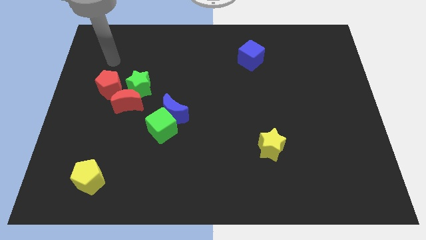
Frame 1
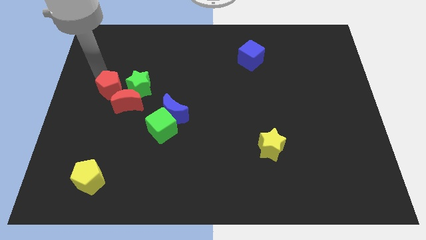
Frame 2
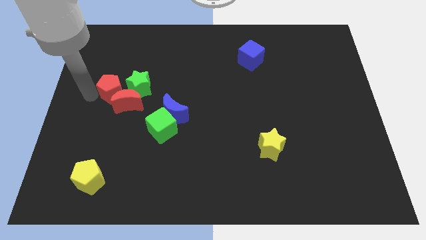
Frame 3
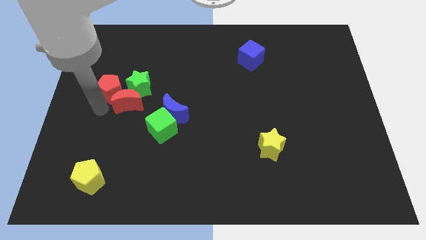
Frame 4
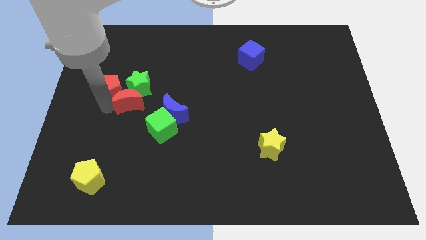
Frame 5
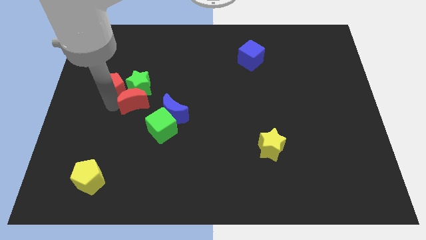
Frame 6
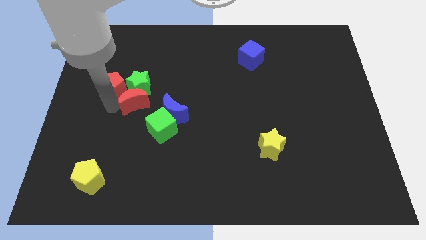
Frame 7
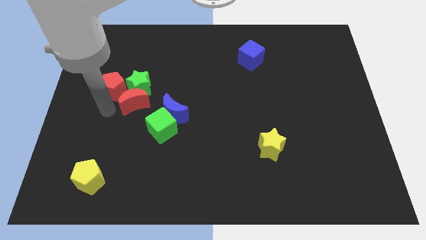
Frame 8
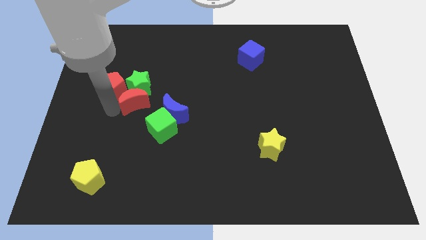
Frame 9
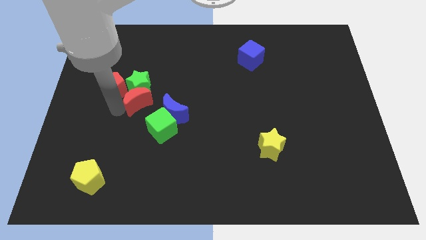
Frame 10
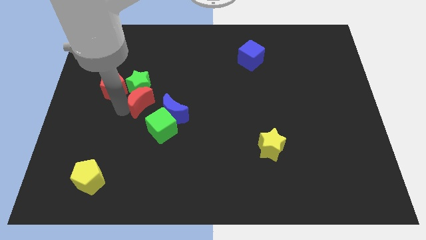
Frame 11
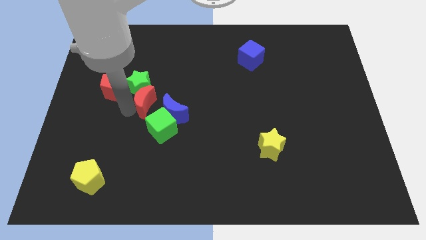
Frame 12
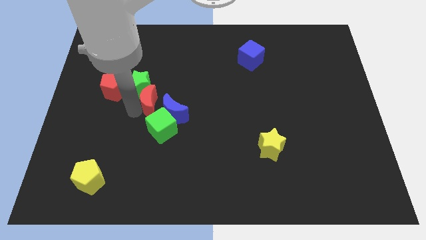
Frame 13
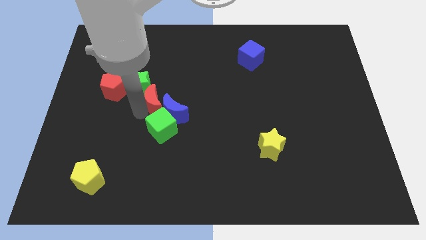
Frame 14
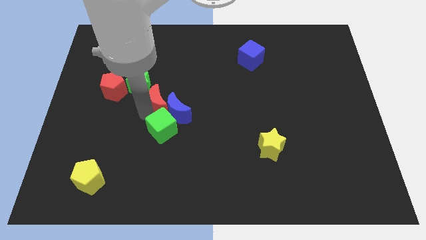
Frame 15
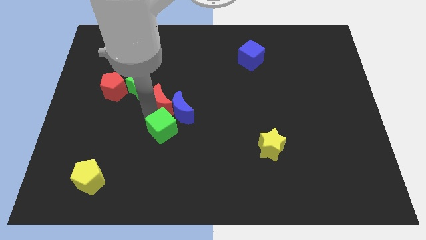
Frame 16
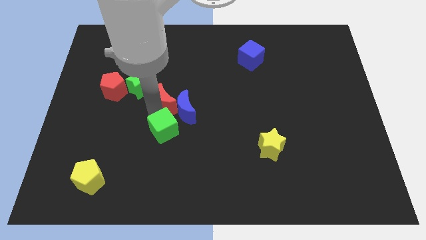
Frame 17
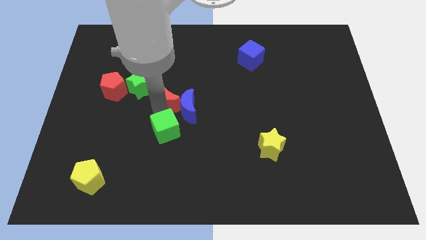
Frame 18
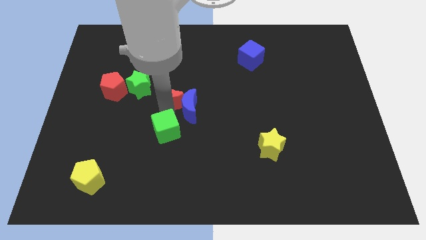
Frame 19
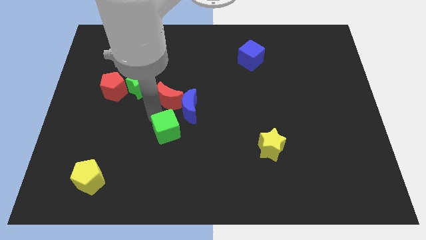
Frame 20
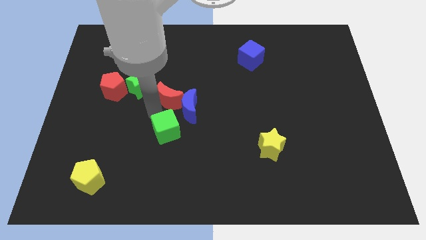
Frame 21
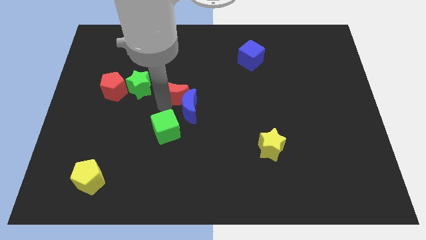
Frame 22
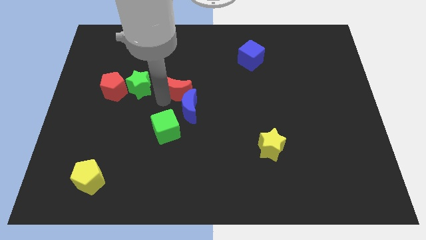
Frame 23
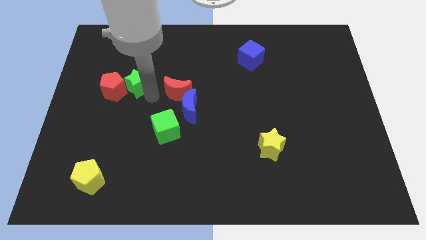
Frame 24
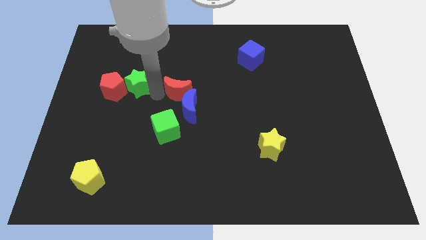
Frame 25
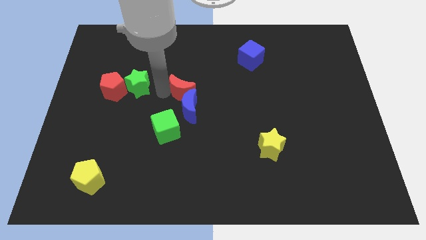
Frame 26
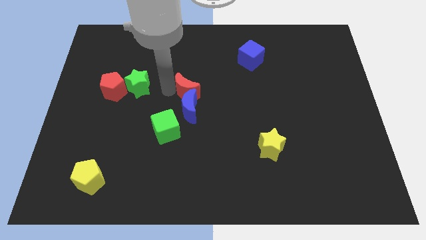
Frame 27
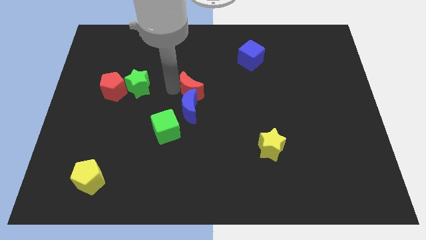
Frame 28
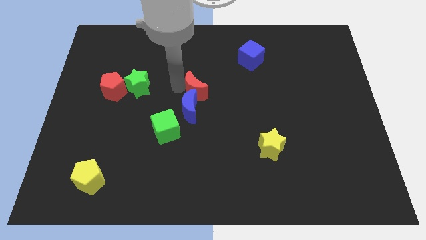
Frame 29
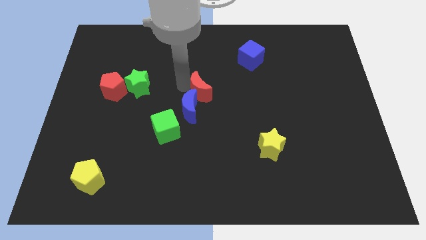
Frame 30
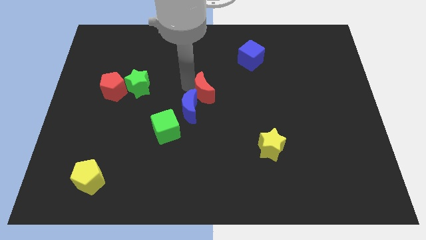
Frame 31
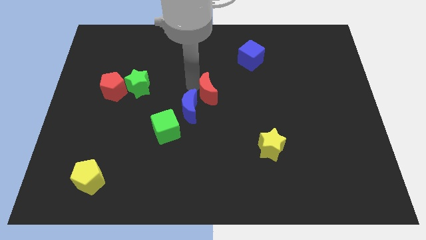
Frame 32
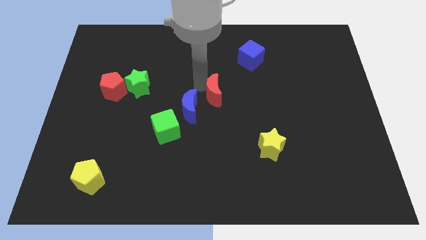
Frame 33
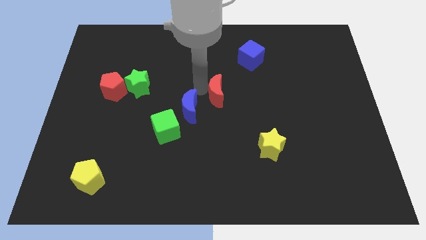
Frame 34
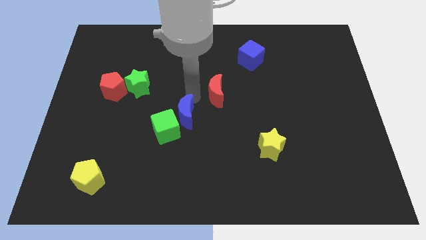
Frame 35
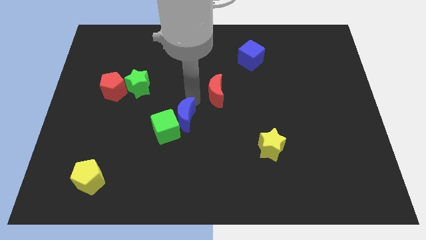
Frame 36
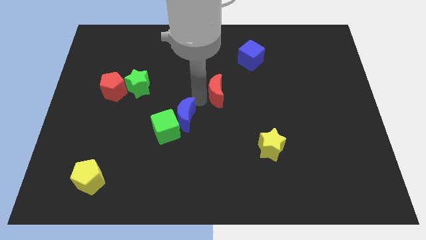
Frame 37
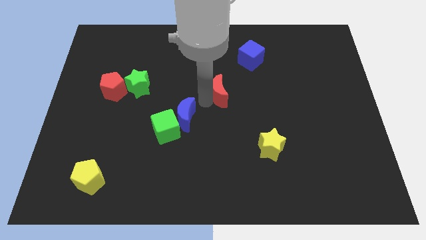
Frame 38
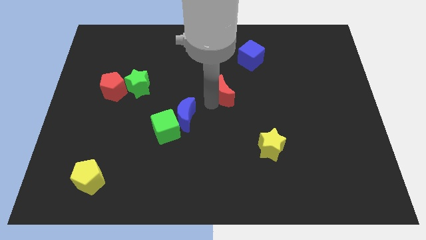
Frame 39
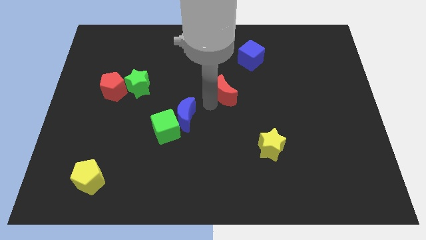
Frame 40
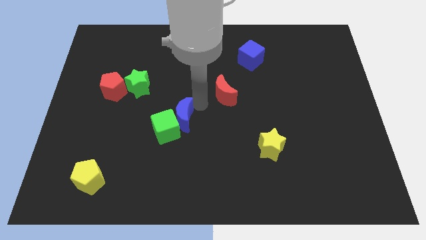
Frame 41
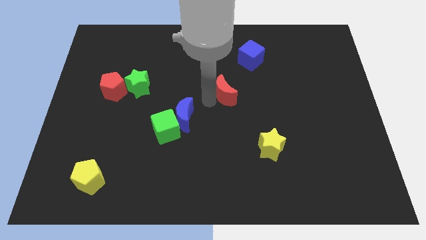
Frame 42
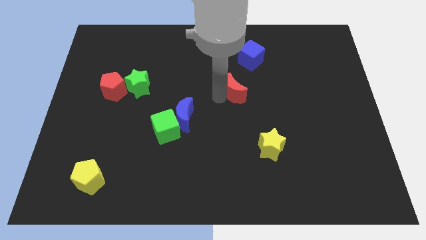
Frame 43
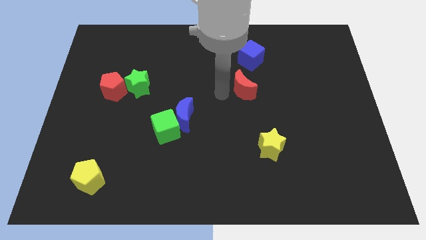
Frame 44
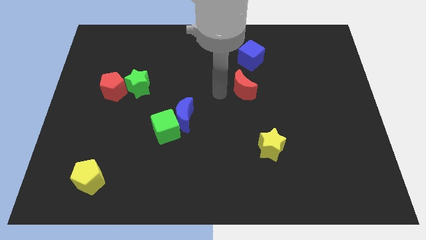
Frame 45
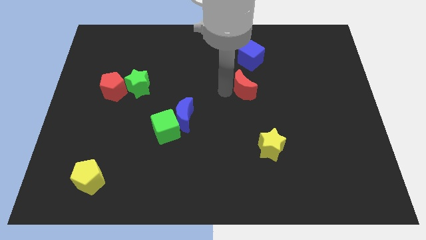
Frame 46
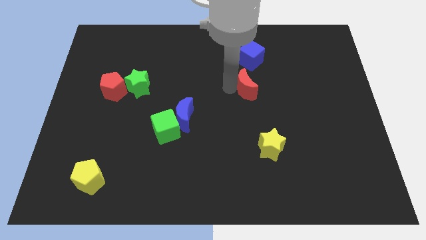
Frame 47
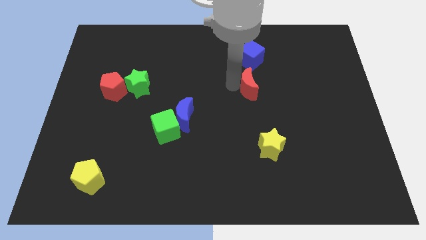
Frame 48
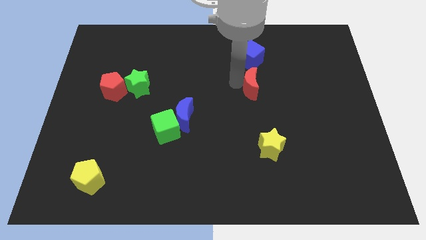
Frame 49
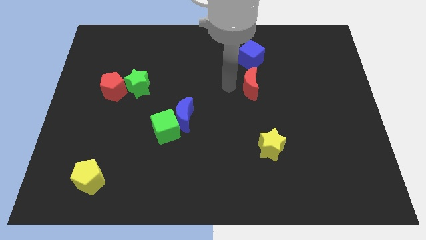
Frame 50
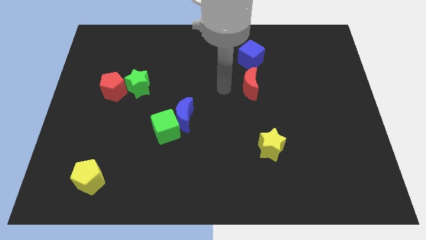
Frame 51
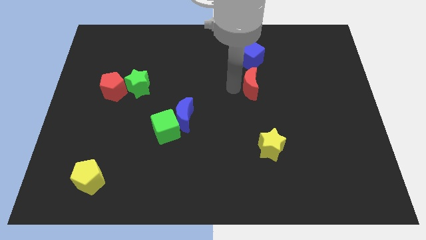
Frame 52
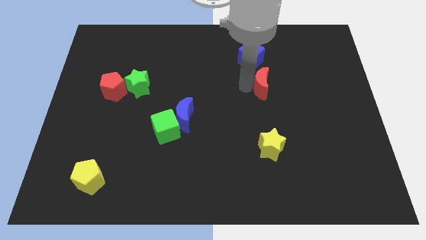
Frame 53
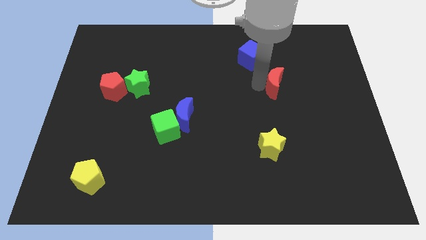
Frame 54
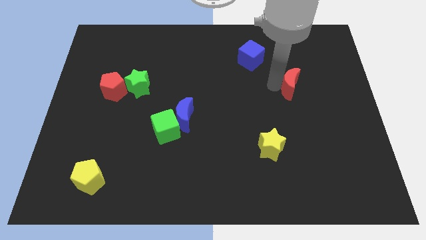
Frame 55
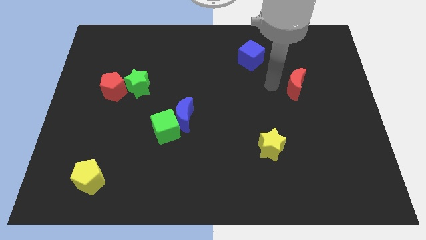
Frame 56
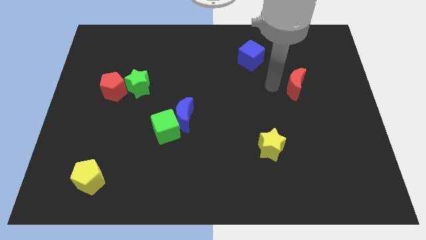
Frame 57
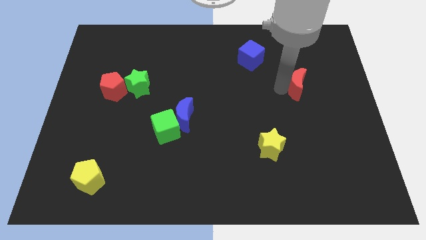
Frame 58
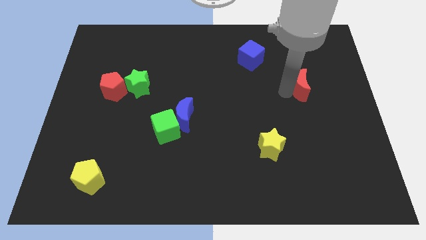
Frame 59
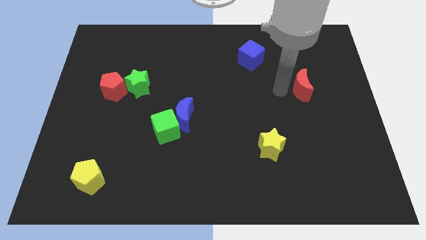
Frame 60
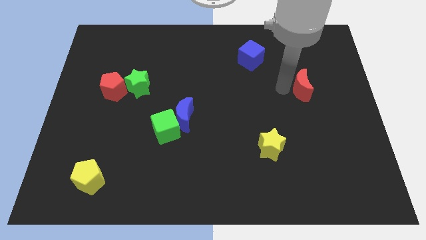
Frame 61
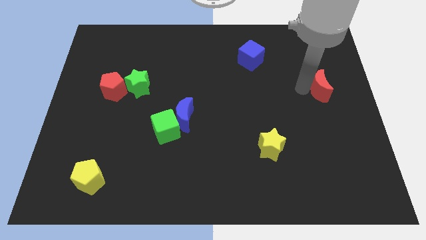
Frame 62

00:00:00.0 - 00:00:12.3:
move the red moon to the right side
